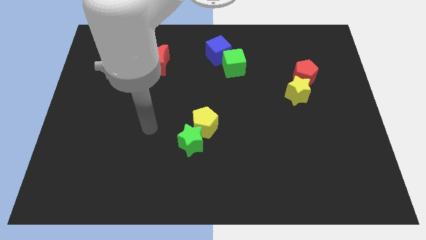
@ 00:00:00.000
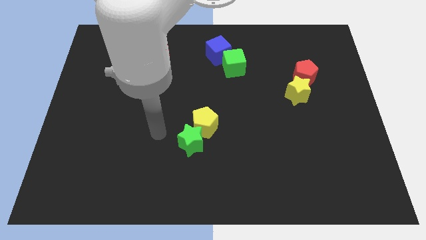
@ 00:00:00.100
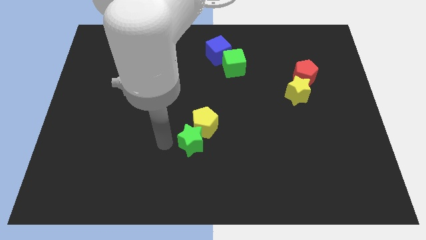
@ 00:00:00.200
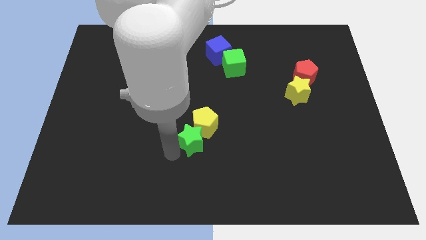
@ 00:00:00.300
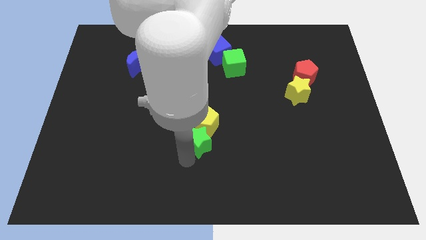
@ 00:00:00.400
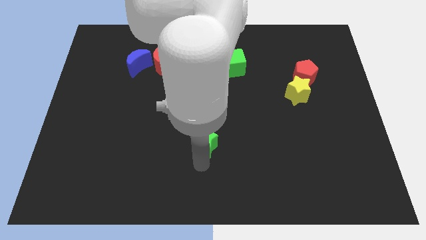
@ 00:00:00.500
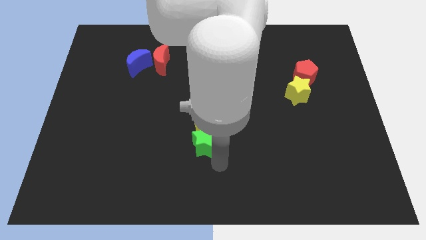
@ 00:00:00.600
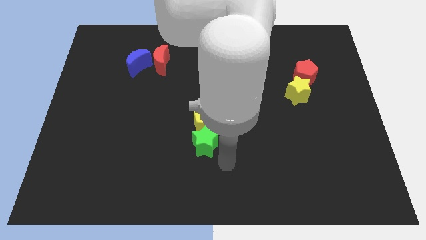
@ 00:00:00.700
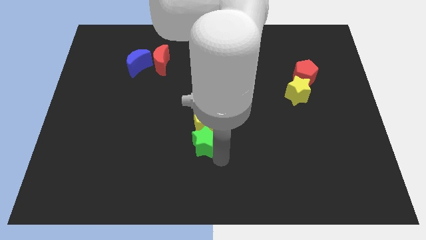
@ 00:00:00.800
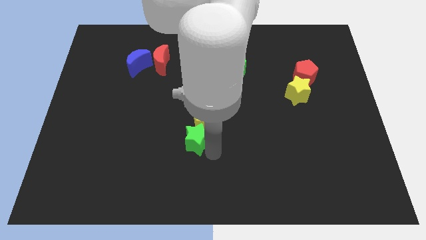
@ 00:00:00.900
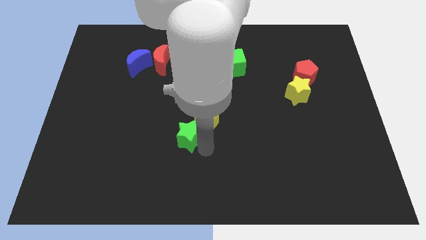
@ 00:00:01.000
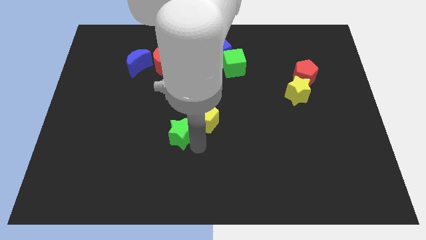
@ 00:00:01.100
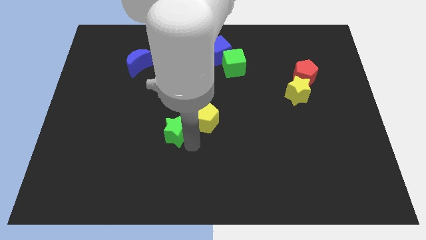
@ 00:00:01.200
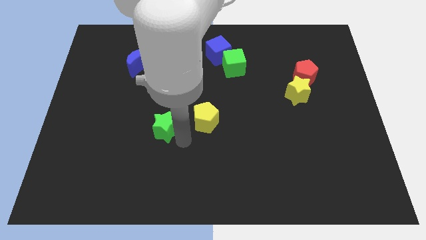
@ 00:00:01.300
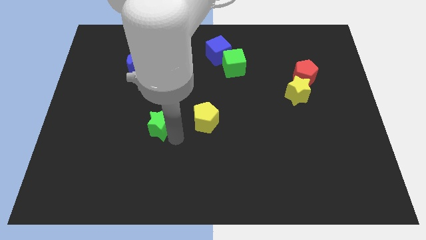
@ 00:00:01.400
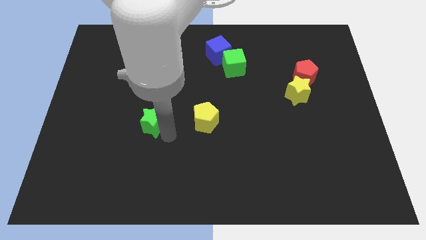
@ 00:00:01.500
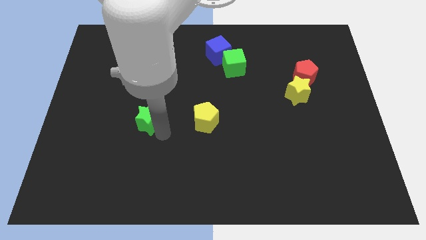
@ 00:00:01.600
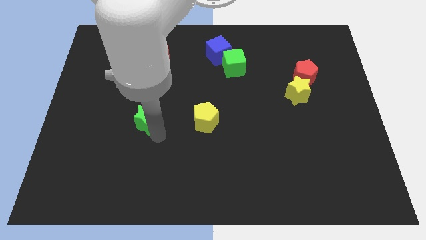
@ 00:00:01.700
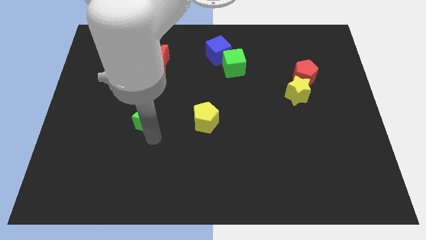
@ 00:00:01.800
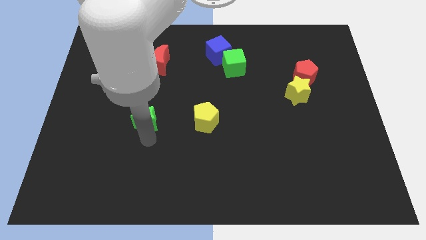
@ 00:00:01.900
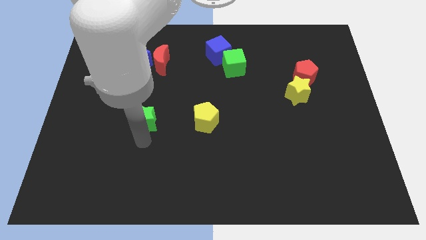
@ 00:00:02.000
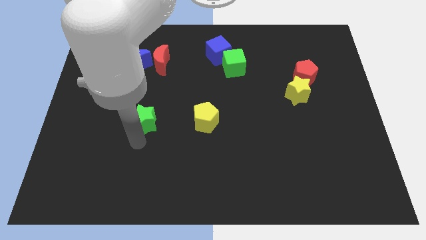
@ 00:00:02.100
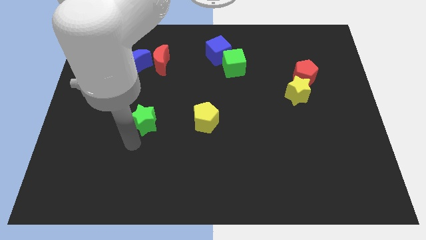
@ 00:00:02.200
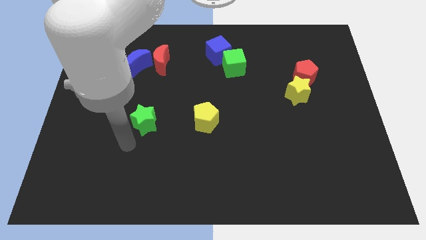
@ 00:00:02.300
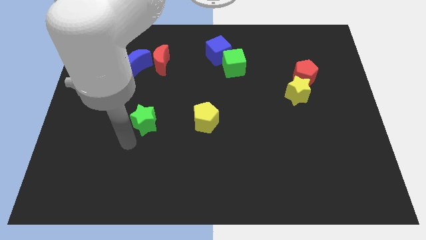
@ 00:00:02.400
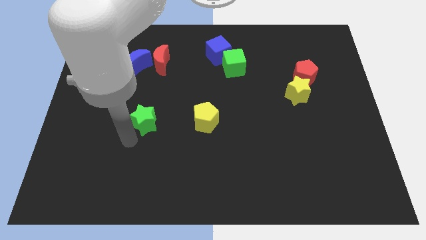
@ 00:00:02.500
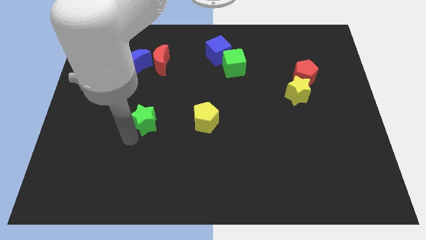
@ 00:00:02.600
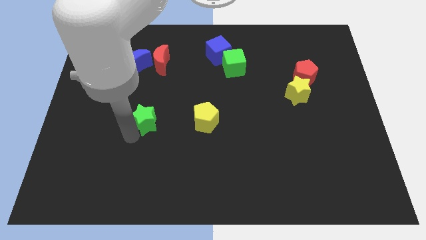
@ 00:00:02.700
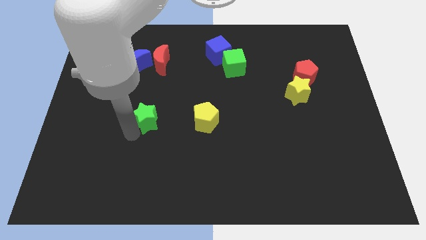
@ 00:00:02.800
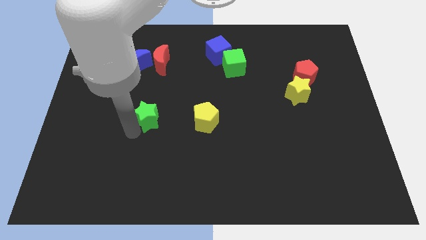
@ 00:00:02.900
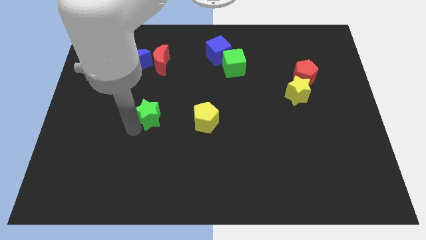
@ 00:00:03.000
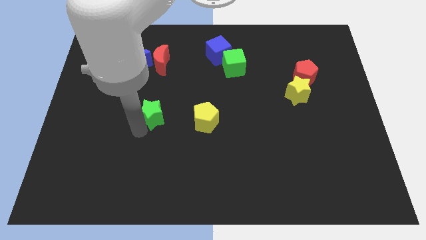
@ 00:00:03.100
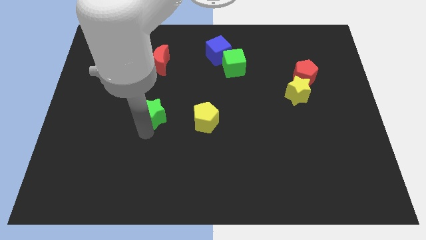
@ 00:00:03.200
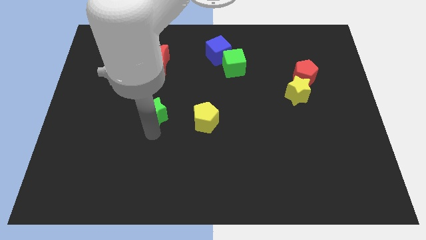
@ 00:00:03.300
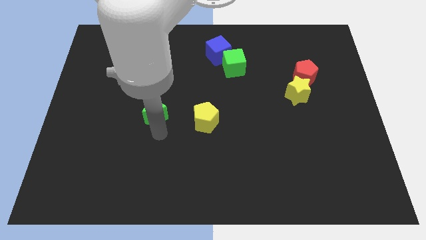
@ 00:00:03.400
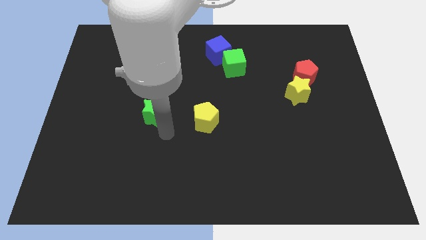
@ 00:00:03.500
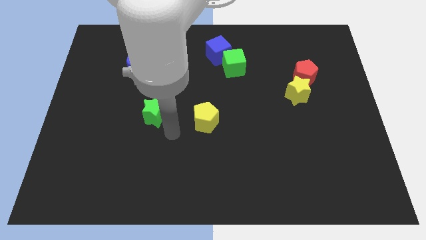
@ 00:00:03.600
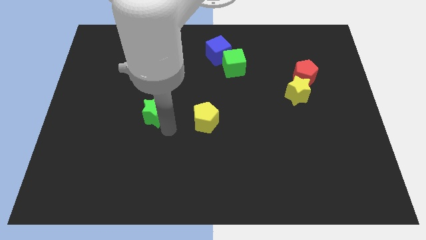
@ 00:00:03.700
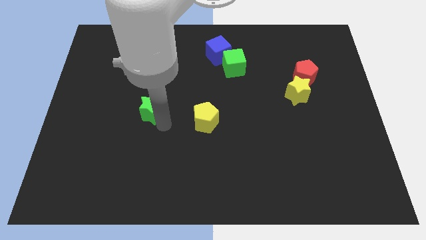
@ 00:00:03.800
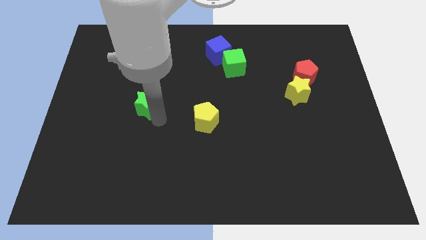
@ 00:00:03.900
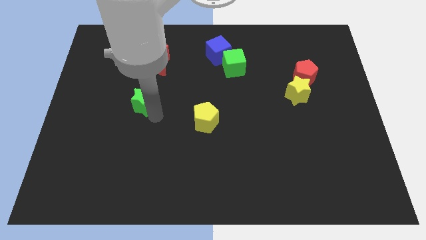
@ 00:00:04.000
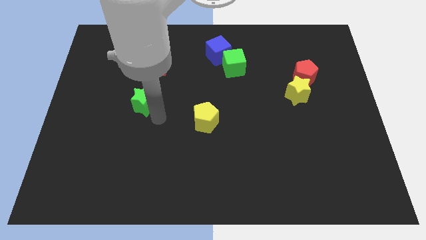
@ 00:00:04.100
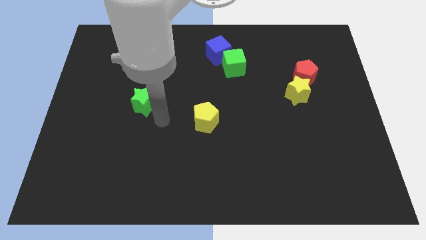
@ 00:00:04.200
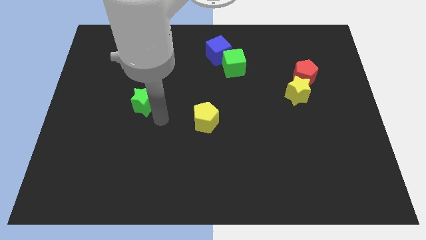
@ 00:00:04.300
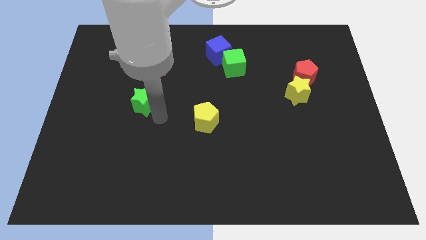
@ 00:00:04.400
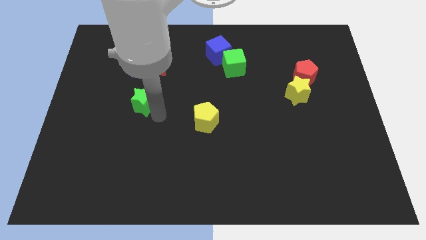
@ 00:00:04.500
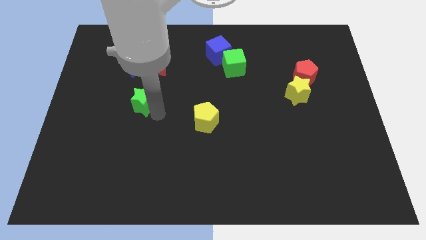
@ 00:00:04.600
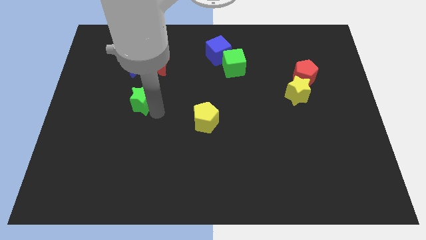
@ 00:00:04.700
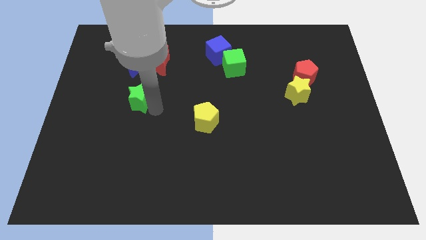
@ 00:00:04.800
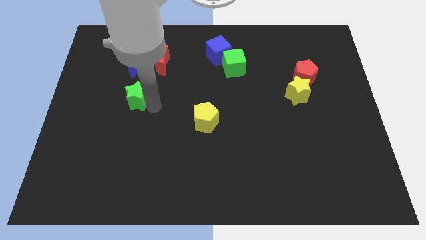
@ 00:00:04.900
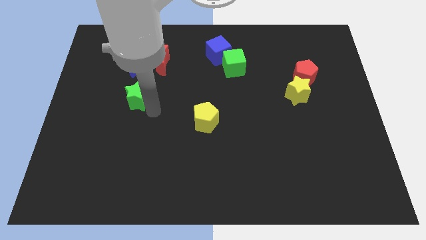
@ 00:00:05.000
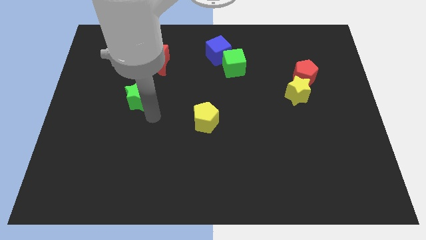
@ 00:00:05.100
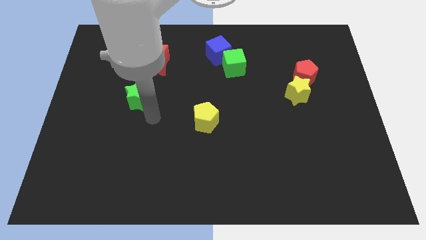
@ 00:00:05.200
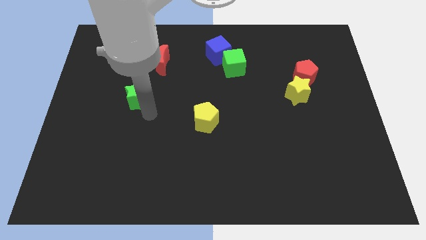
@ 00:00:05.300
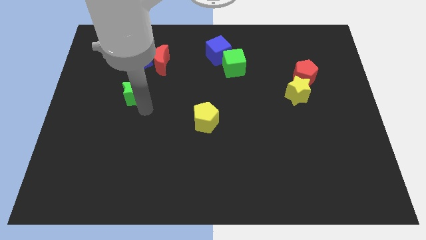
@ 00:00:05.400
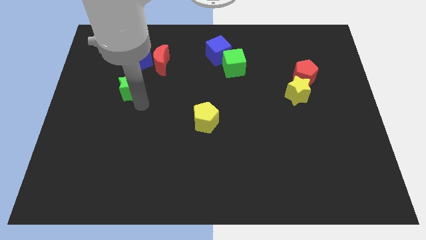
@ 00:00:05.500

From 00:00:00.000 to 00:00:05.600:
push the green star up and to the left diagonally

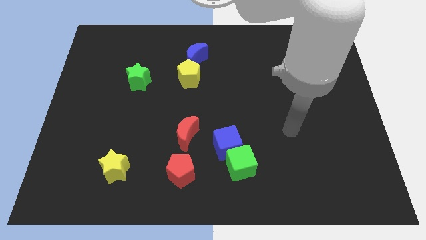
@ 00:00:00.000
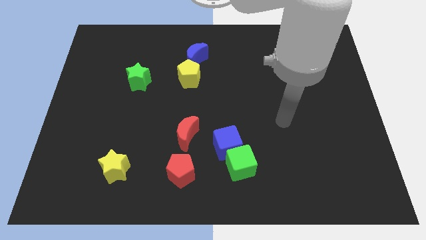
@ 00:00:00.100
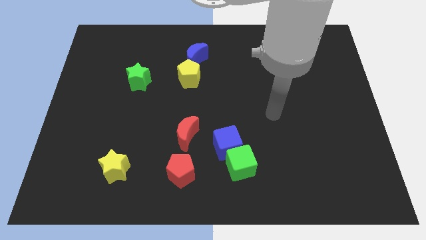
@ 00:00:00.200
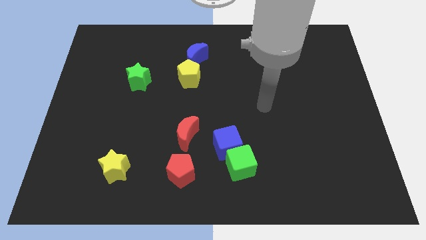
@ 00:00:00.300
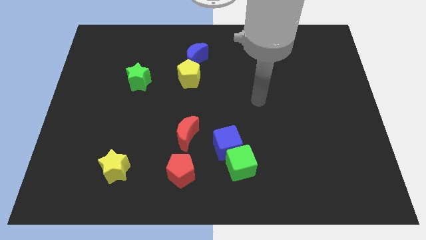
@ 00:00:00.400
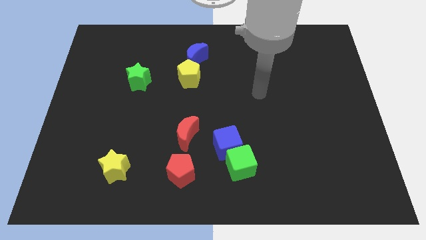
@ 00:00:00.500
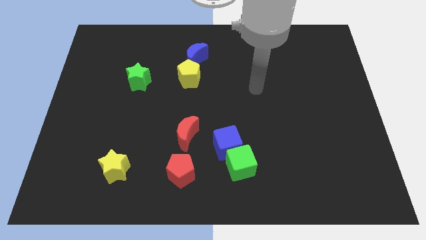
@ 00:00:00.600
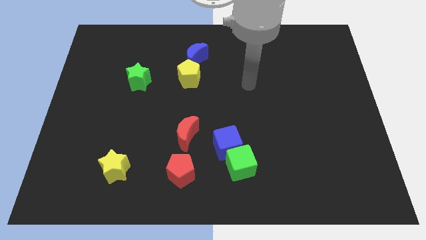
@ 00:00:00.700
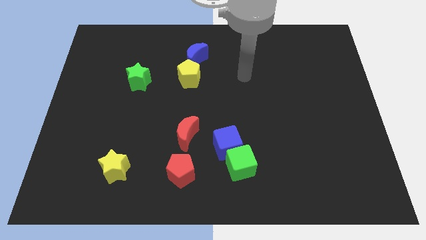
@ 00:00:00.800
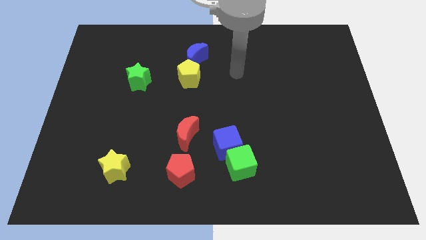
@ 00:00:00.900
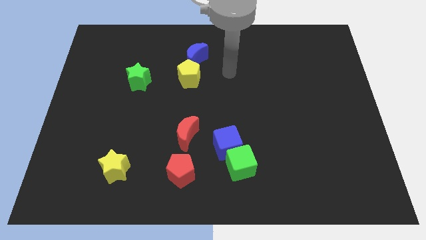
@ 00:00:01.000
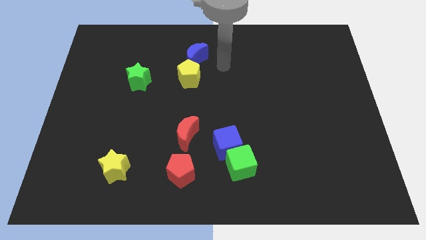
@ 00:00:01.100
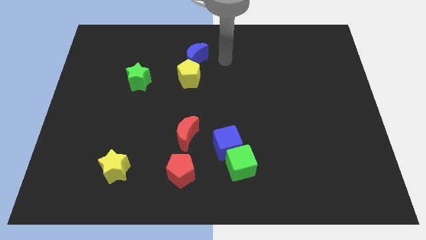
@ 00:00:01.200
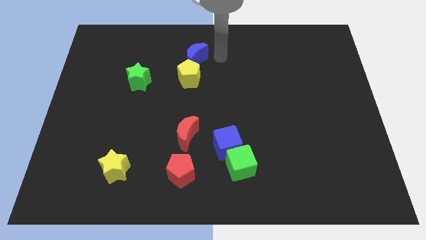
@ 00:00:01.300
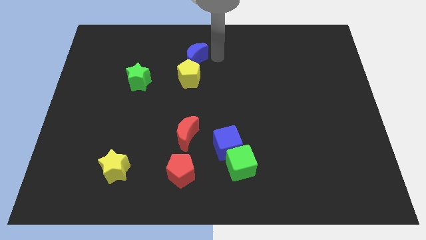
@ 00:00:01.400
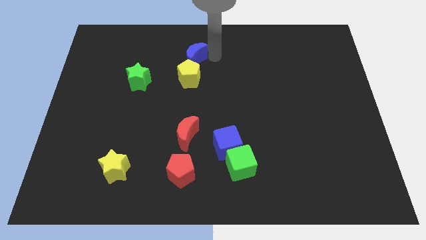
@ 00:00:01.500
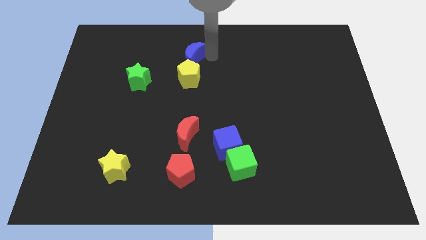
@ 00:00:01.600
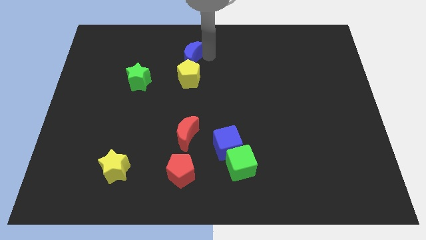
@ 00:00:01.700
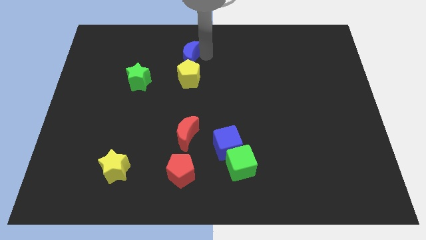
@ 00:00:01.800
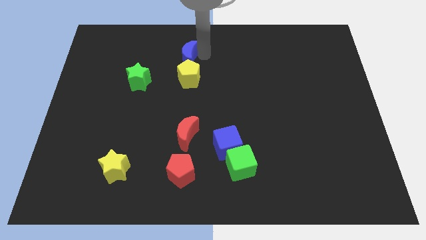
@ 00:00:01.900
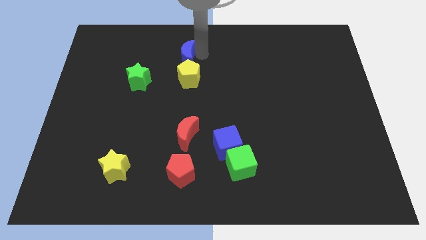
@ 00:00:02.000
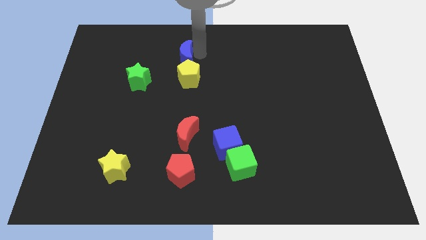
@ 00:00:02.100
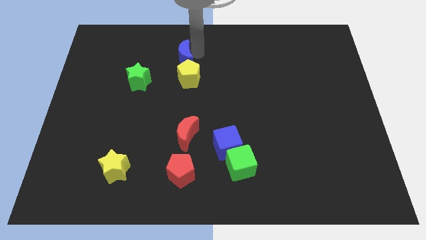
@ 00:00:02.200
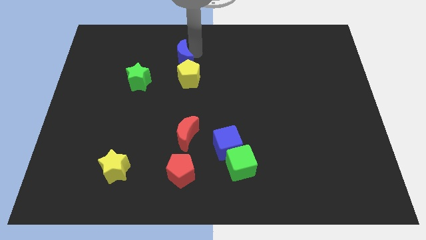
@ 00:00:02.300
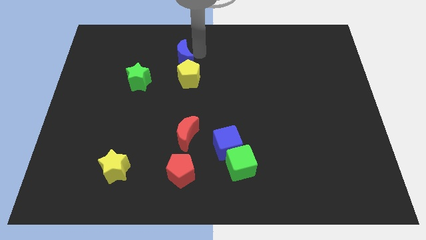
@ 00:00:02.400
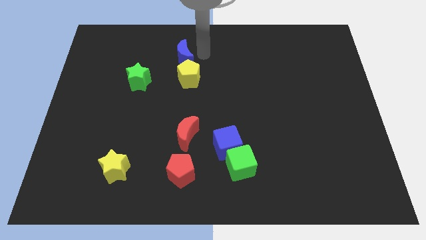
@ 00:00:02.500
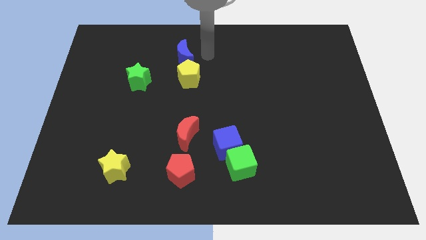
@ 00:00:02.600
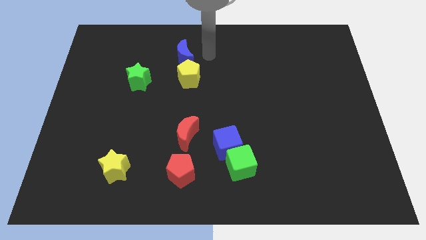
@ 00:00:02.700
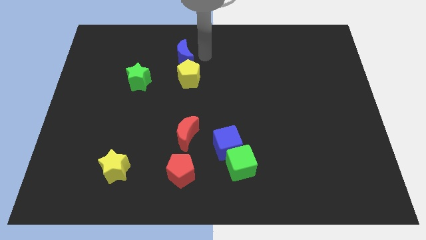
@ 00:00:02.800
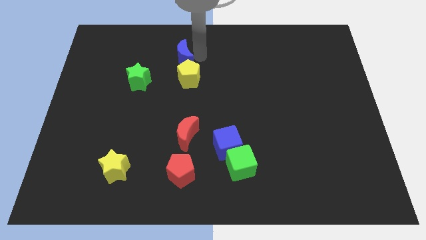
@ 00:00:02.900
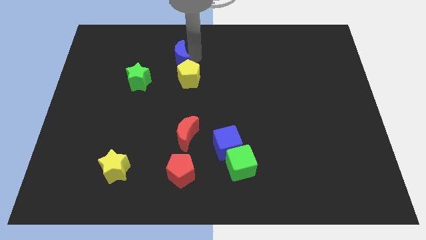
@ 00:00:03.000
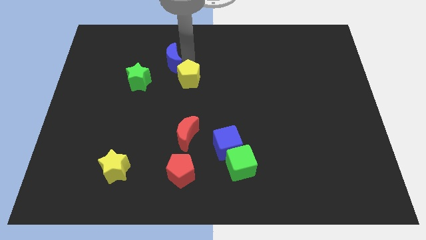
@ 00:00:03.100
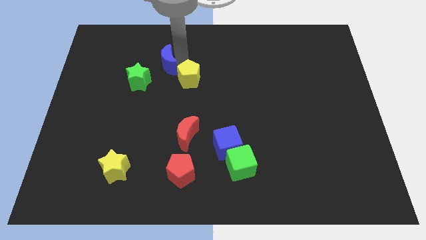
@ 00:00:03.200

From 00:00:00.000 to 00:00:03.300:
slightly move the blue moon to the left
